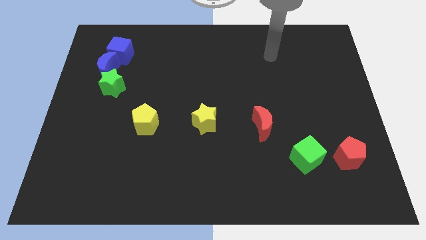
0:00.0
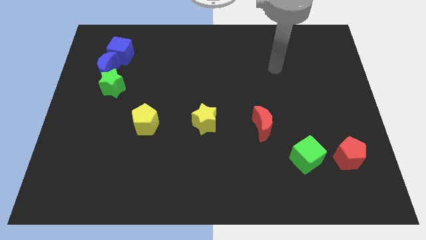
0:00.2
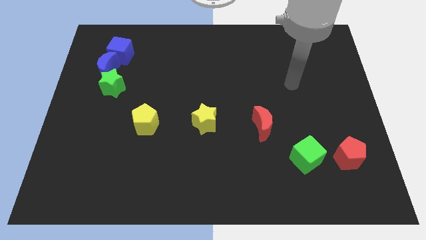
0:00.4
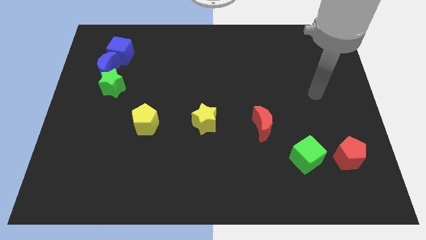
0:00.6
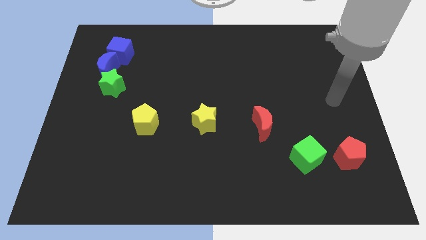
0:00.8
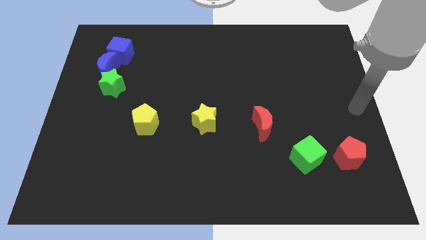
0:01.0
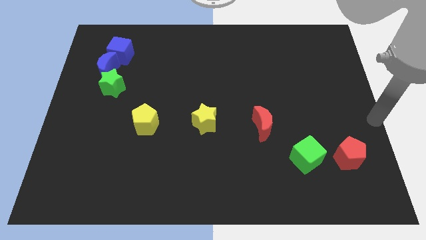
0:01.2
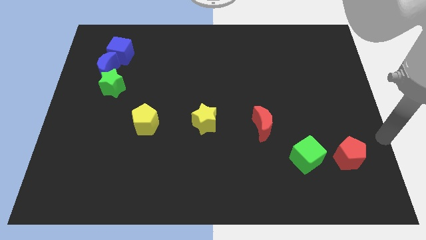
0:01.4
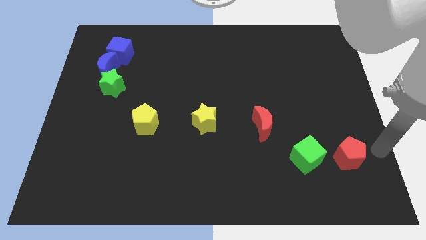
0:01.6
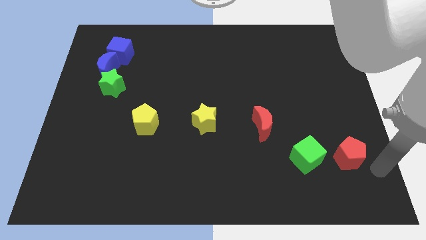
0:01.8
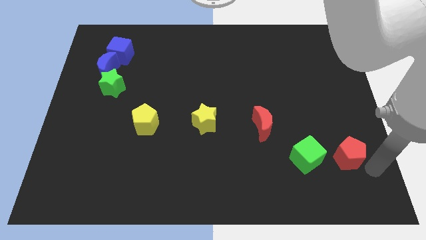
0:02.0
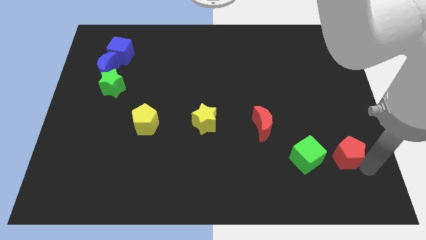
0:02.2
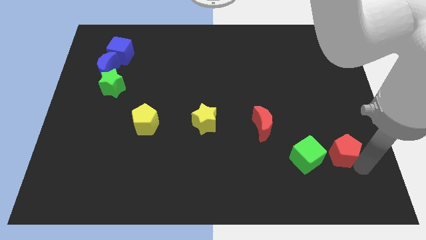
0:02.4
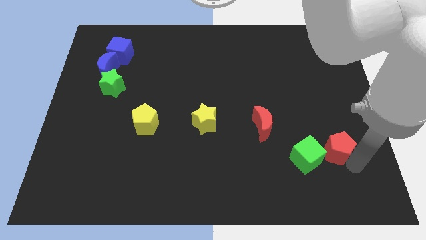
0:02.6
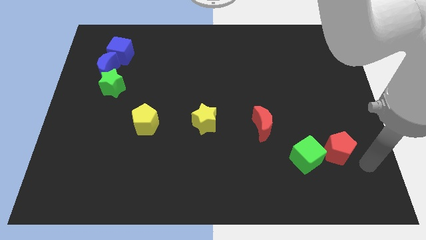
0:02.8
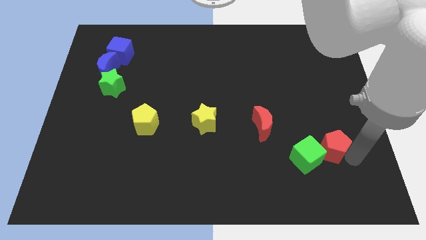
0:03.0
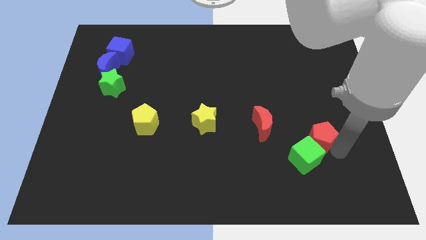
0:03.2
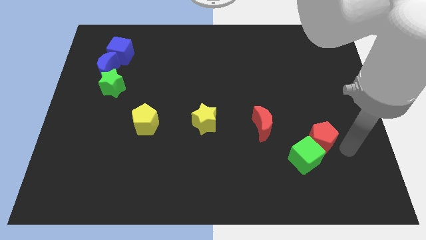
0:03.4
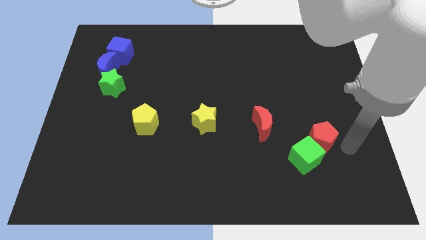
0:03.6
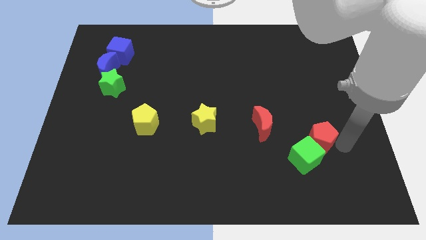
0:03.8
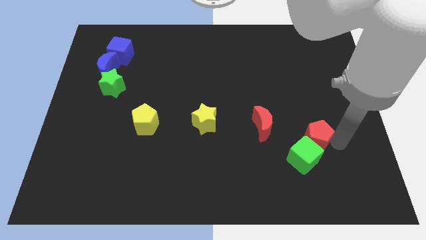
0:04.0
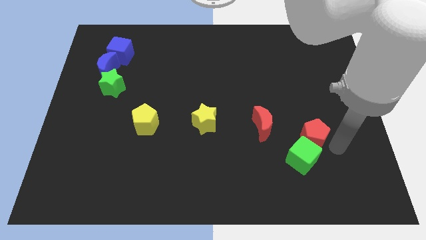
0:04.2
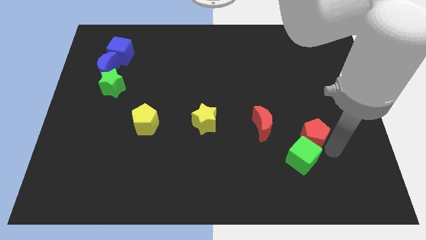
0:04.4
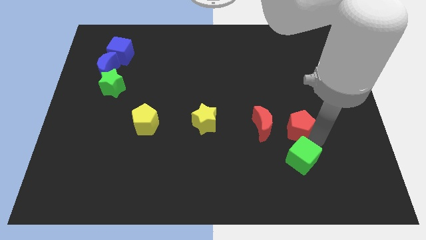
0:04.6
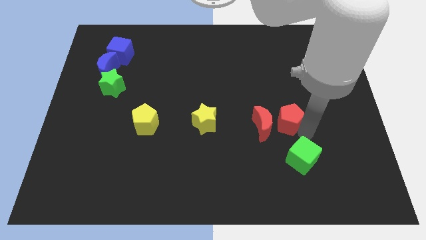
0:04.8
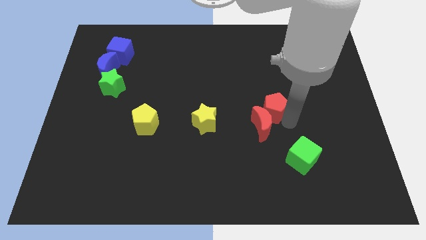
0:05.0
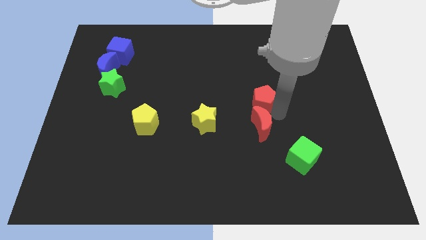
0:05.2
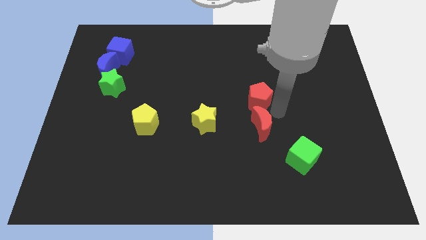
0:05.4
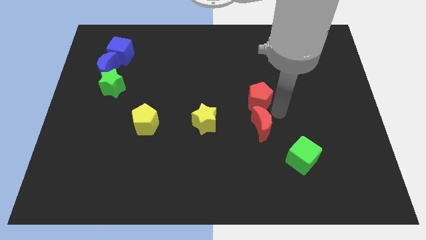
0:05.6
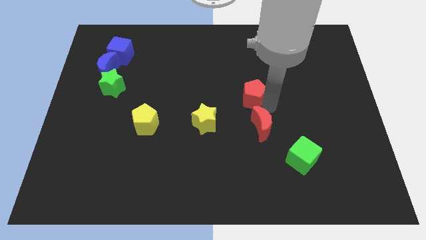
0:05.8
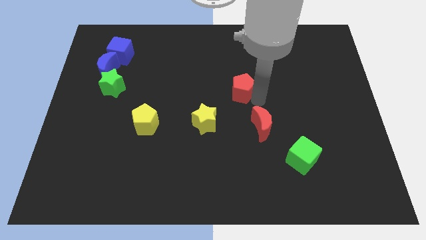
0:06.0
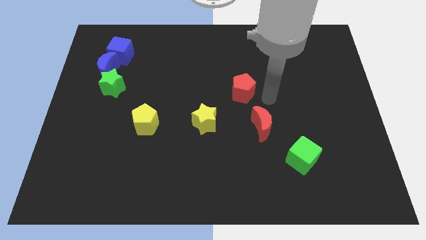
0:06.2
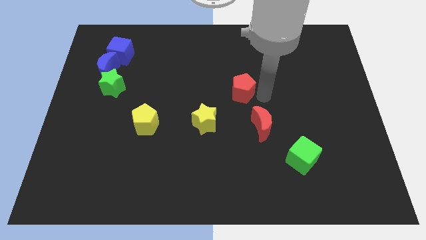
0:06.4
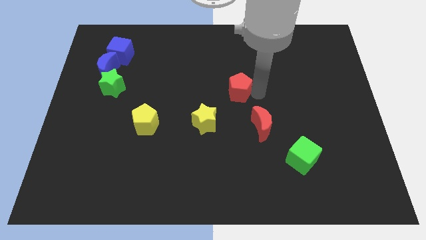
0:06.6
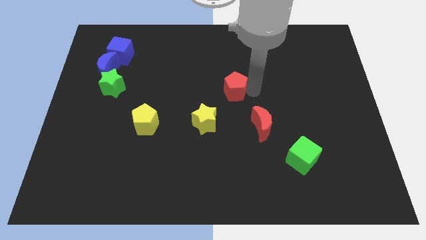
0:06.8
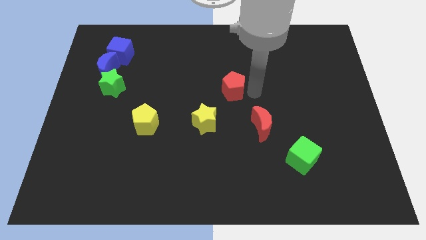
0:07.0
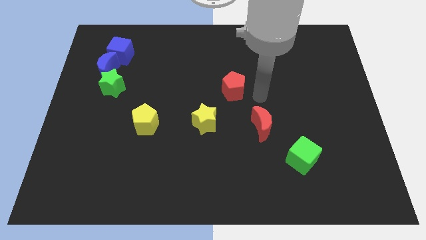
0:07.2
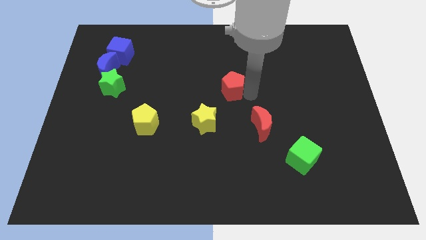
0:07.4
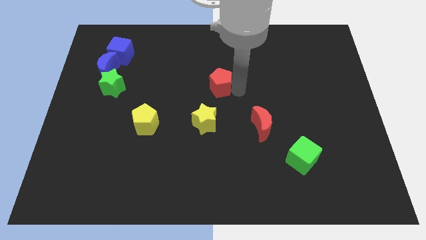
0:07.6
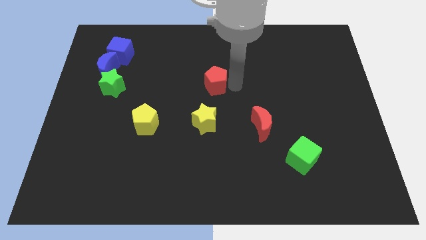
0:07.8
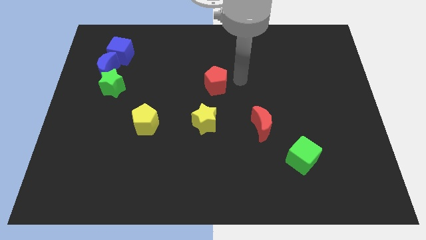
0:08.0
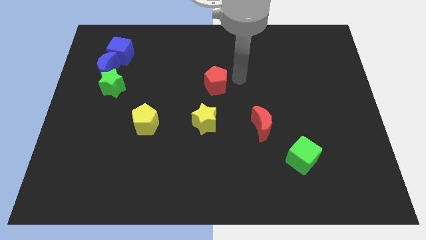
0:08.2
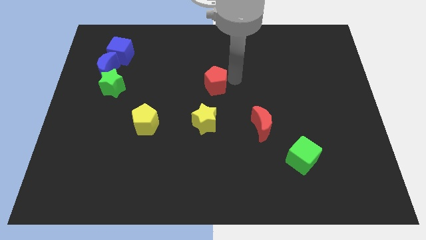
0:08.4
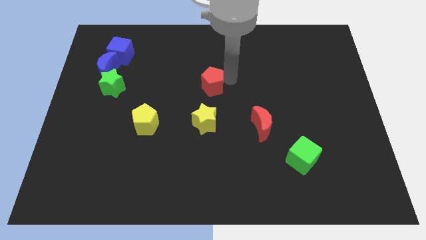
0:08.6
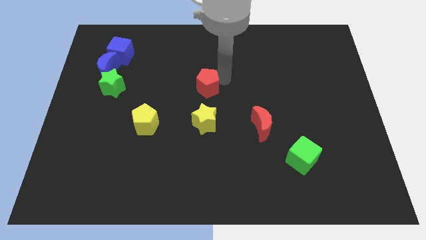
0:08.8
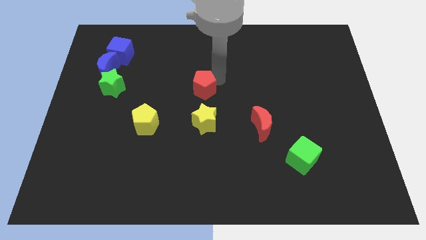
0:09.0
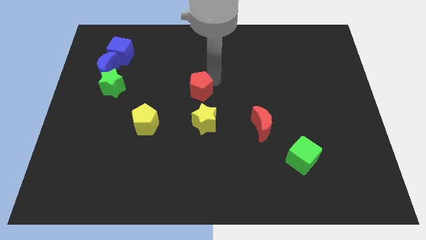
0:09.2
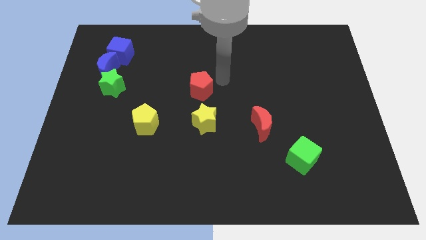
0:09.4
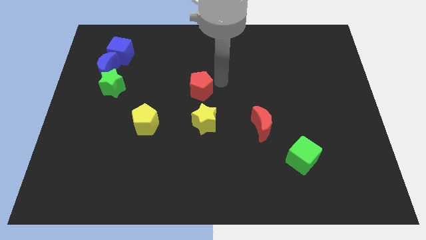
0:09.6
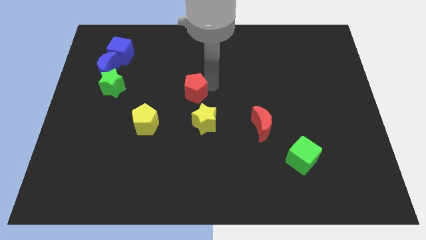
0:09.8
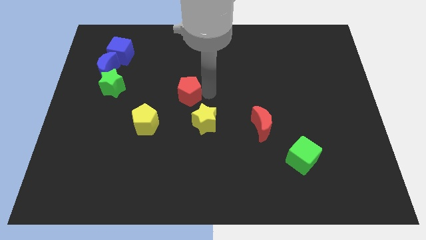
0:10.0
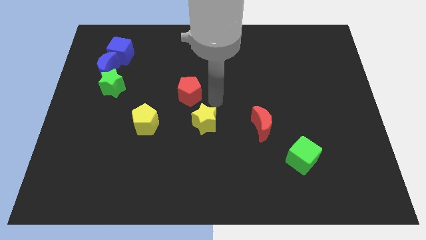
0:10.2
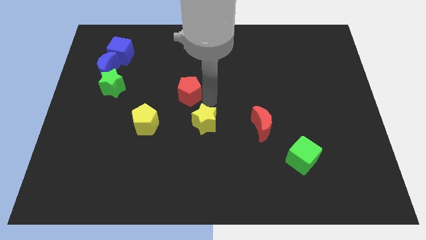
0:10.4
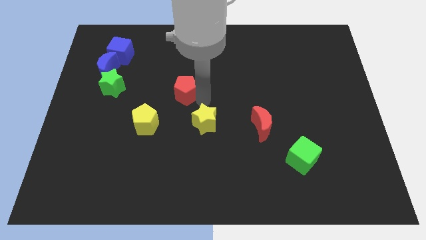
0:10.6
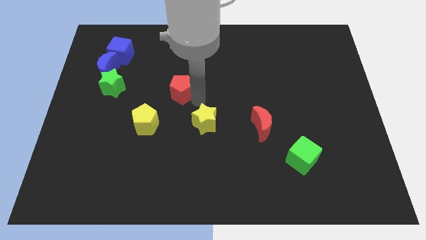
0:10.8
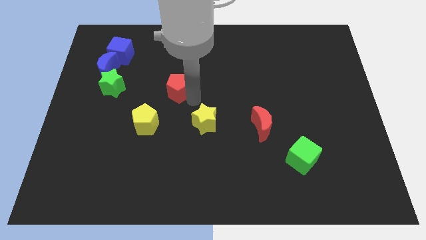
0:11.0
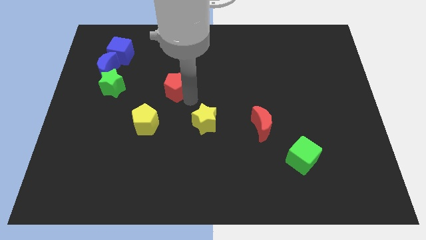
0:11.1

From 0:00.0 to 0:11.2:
put the red pentagon right of the green star

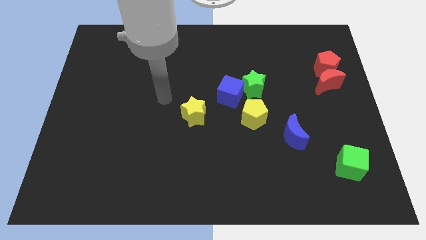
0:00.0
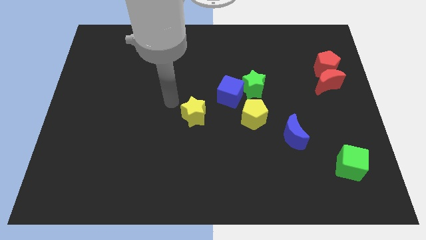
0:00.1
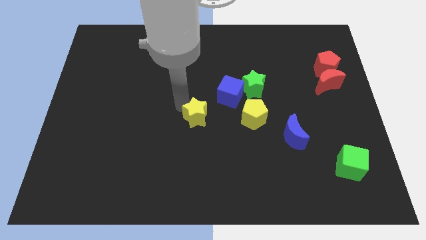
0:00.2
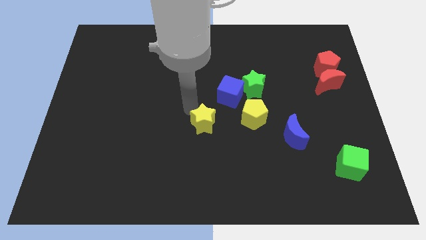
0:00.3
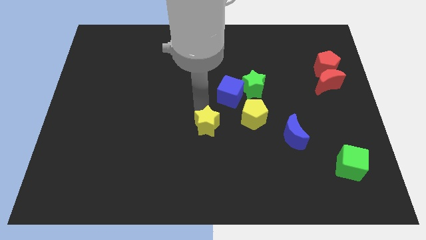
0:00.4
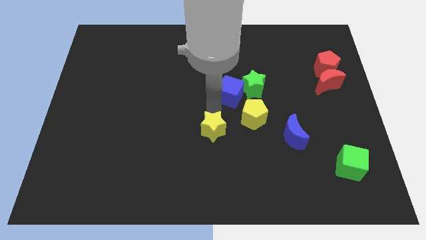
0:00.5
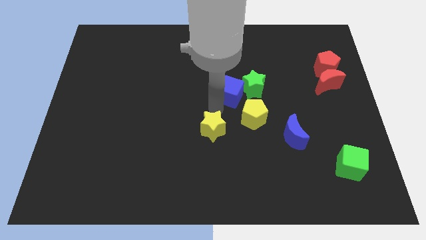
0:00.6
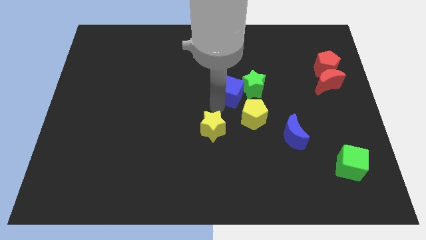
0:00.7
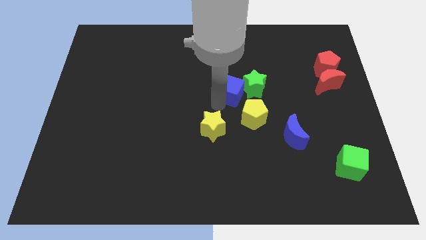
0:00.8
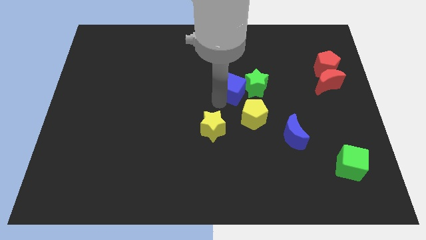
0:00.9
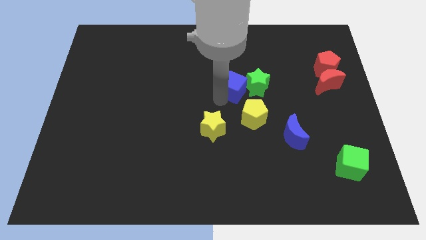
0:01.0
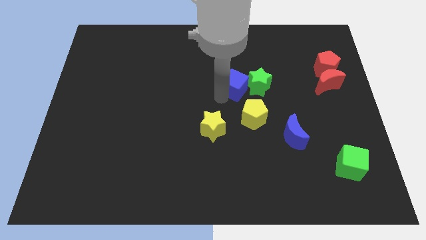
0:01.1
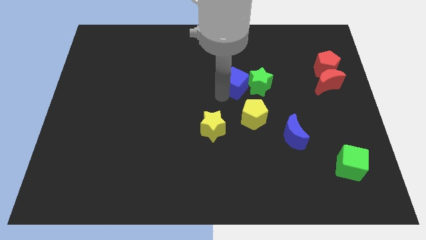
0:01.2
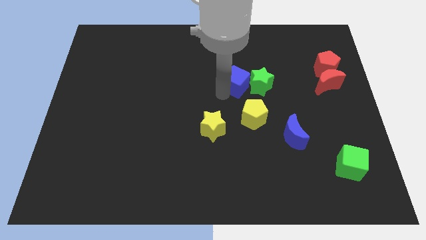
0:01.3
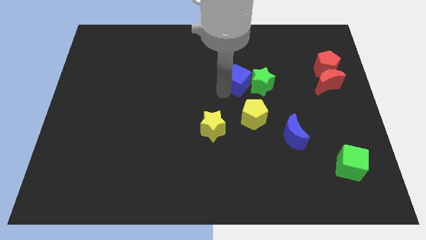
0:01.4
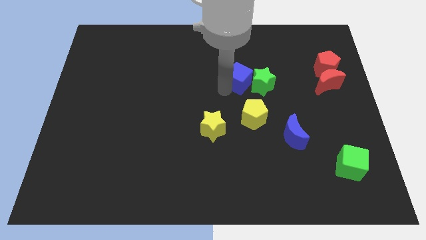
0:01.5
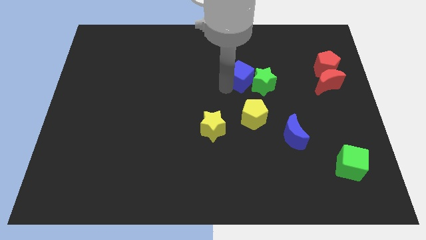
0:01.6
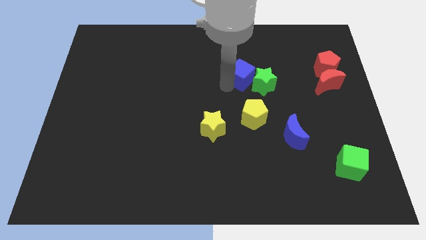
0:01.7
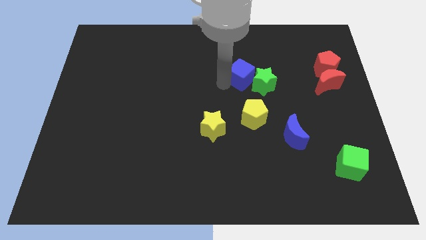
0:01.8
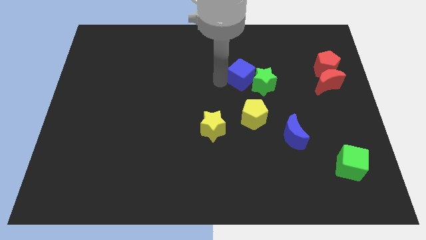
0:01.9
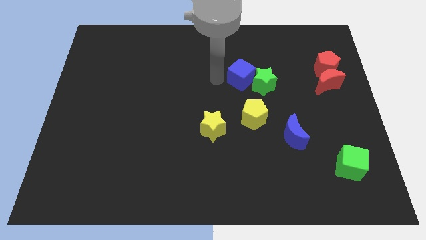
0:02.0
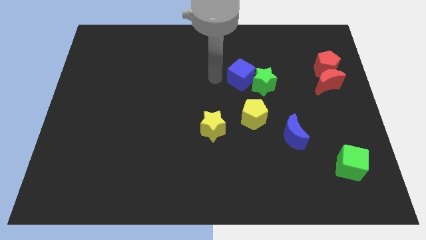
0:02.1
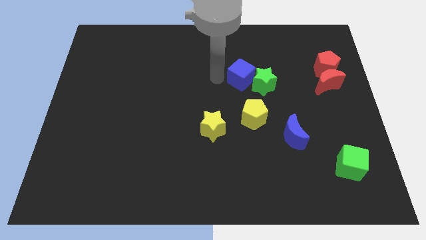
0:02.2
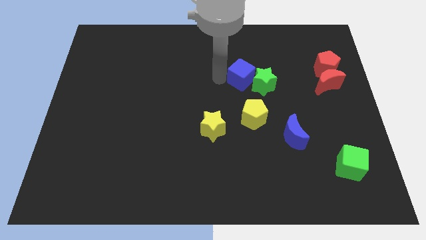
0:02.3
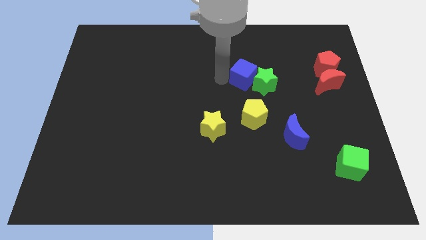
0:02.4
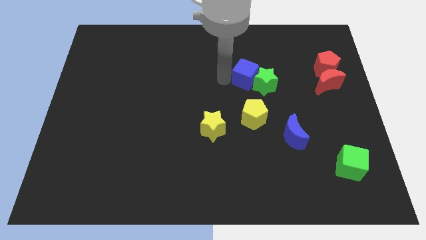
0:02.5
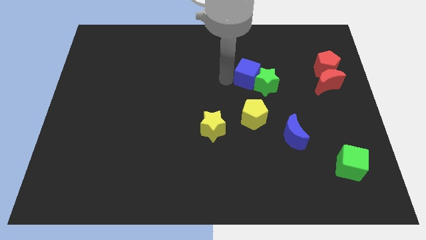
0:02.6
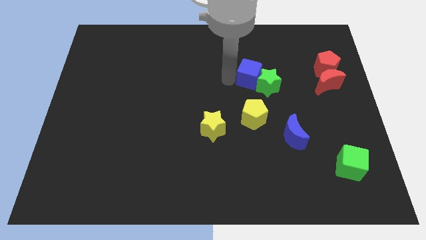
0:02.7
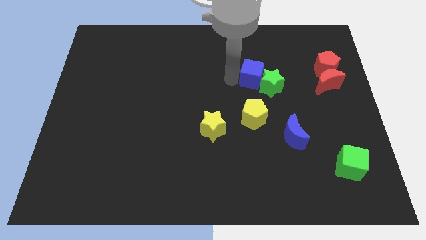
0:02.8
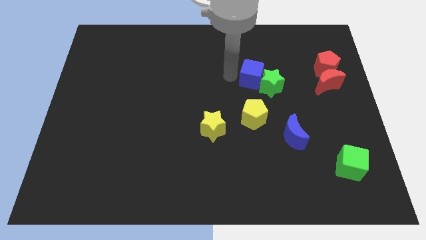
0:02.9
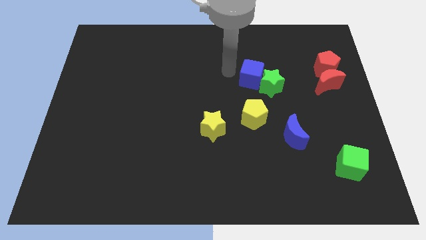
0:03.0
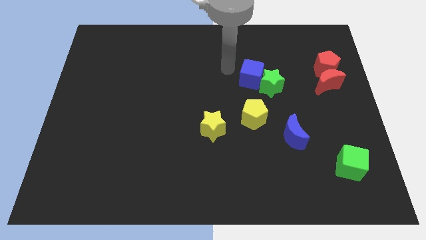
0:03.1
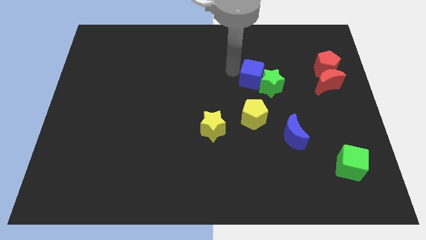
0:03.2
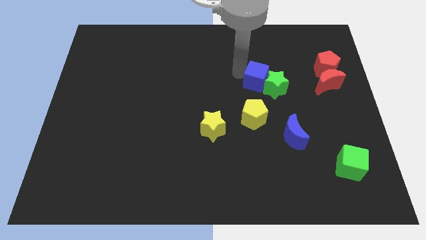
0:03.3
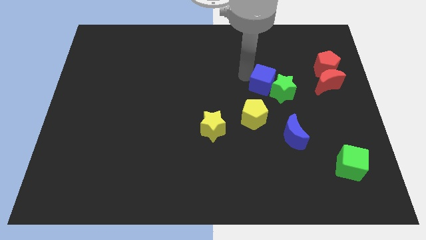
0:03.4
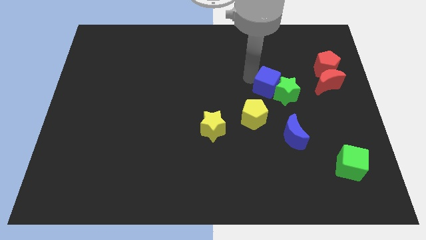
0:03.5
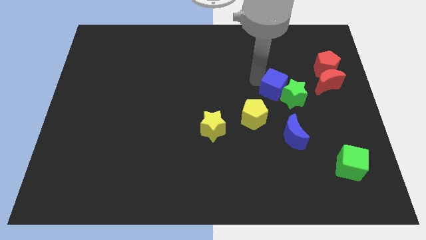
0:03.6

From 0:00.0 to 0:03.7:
put the blue cube to the top side of the blue moon
